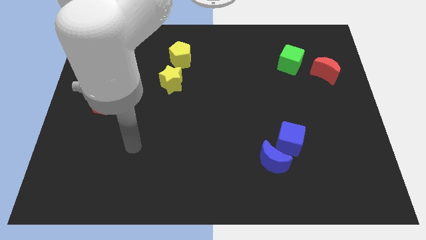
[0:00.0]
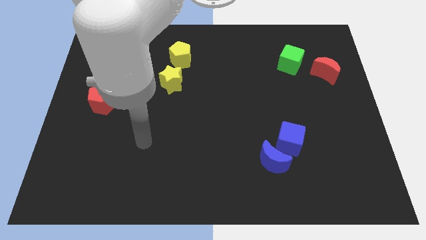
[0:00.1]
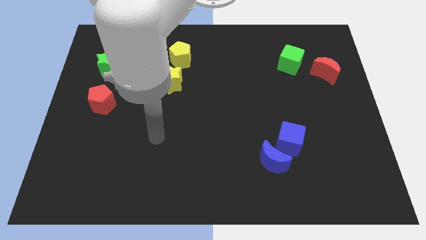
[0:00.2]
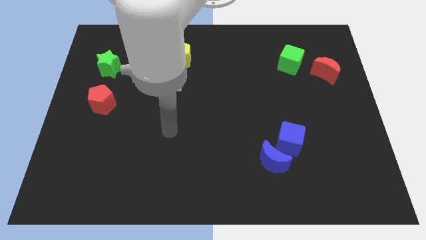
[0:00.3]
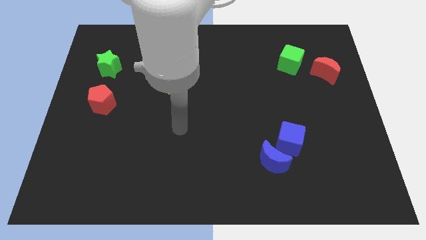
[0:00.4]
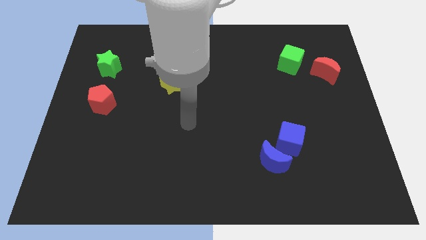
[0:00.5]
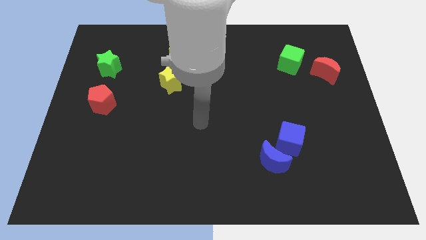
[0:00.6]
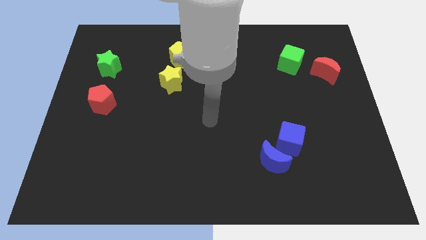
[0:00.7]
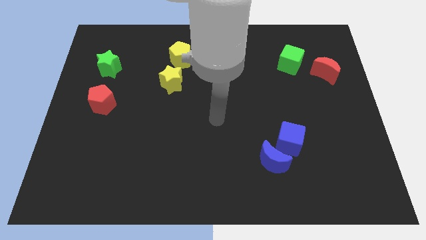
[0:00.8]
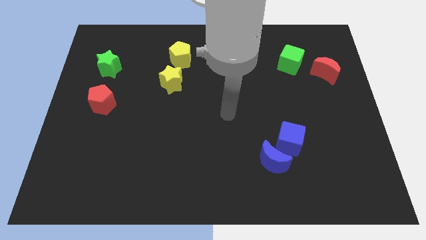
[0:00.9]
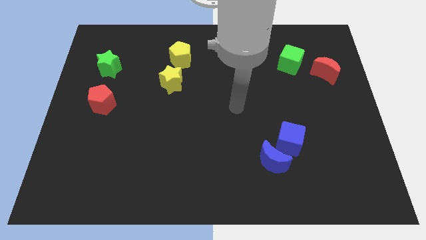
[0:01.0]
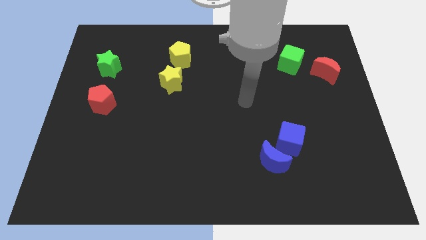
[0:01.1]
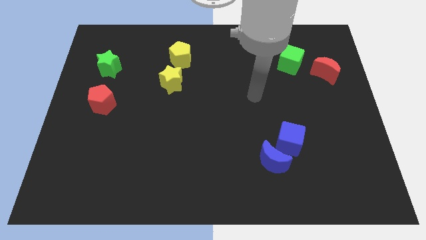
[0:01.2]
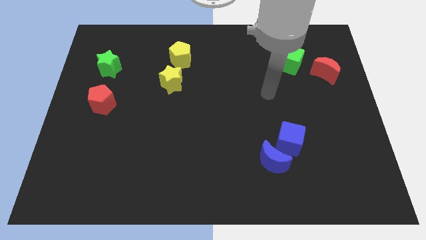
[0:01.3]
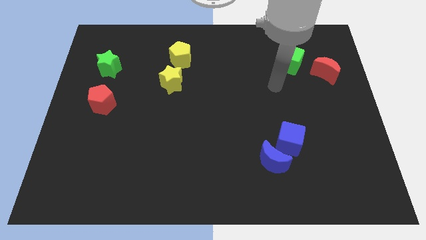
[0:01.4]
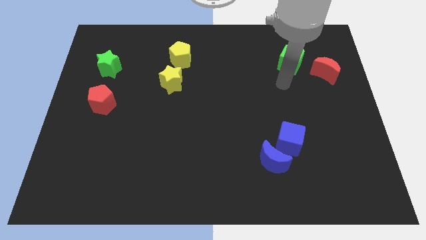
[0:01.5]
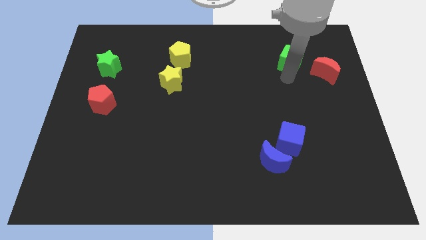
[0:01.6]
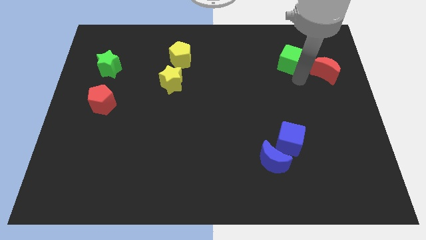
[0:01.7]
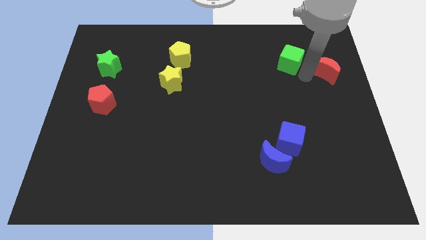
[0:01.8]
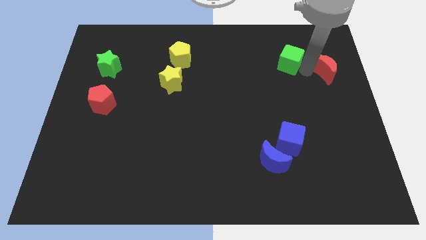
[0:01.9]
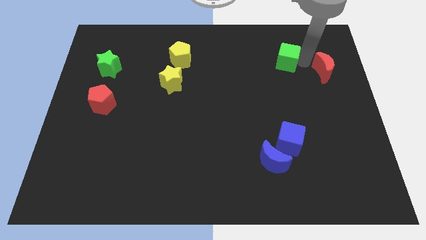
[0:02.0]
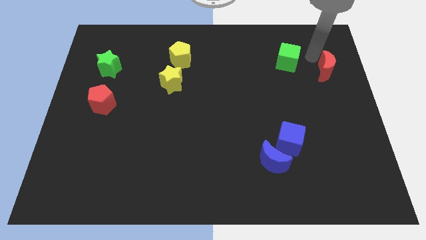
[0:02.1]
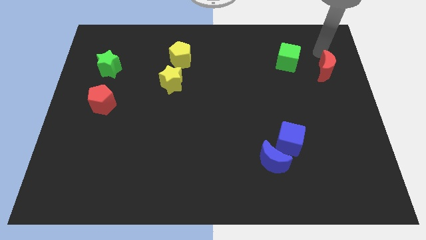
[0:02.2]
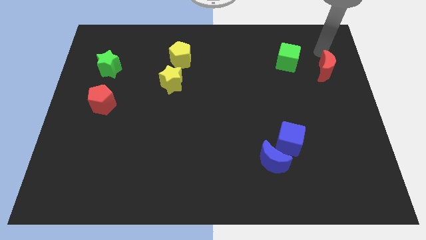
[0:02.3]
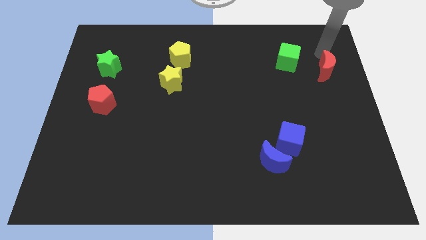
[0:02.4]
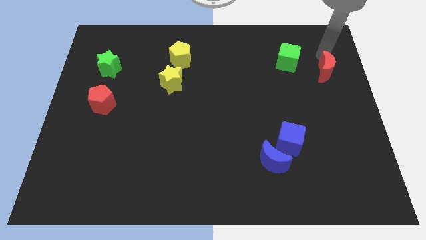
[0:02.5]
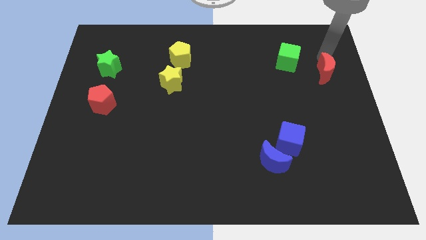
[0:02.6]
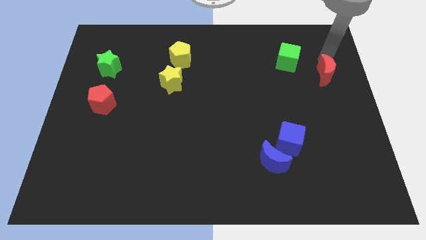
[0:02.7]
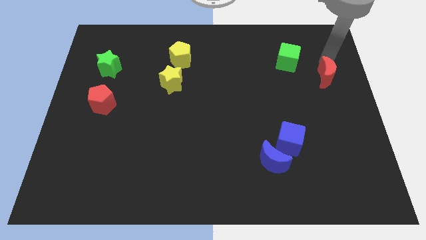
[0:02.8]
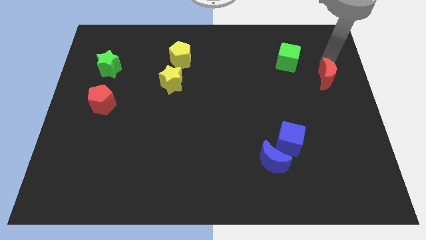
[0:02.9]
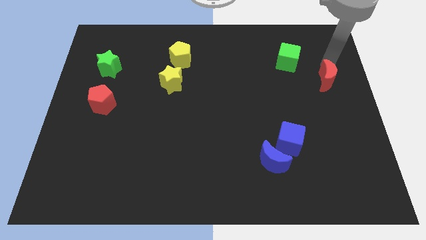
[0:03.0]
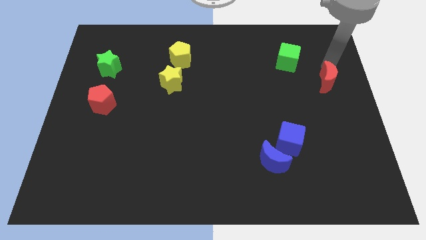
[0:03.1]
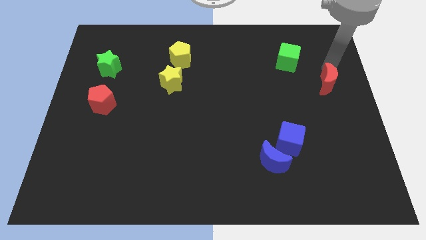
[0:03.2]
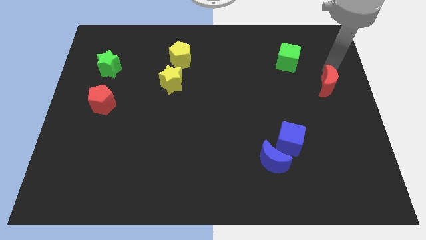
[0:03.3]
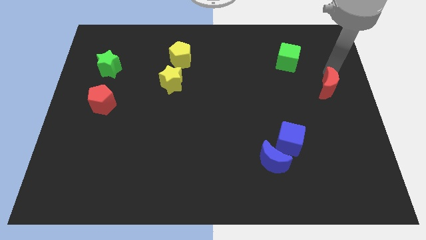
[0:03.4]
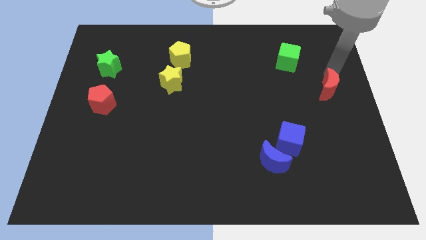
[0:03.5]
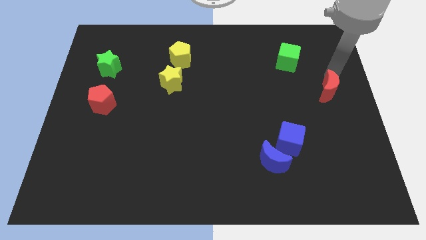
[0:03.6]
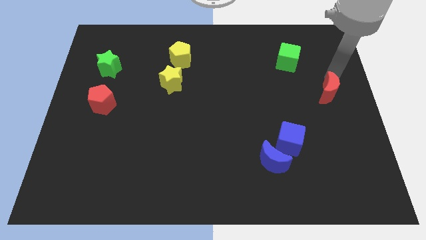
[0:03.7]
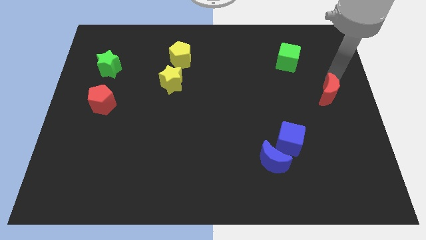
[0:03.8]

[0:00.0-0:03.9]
move the red moon somewhat downwards

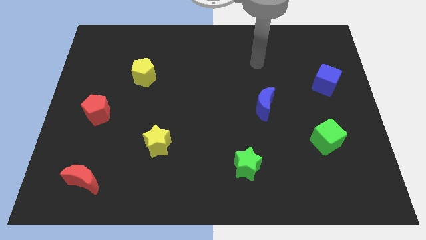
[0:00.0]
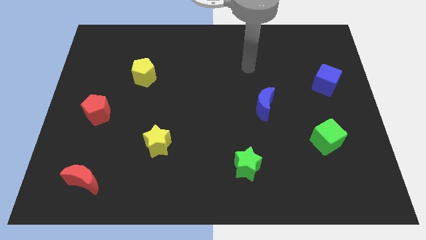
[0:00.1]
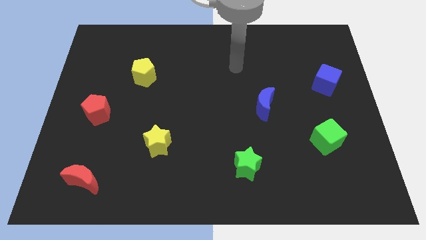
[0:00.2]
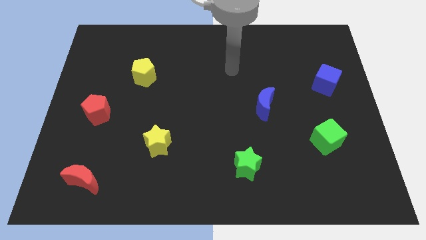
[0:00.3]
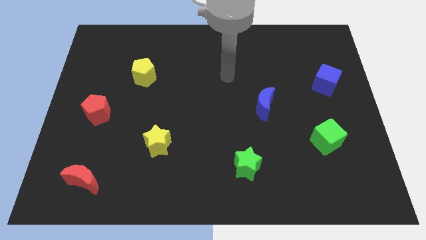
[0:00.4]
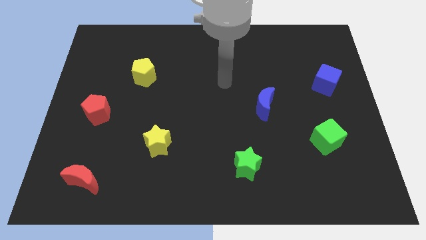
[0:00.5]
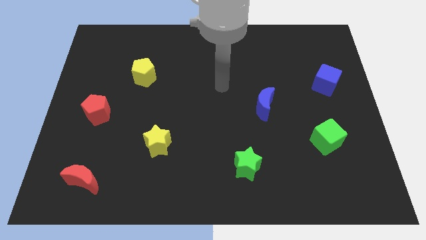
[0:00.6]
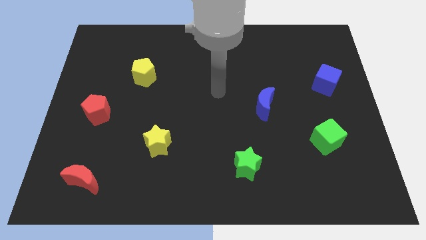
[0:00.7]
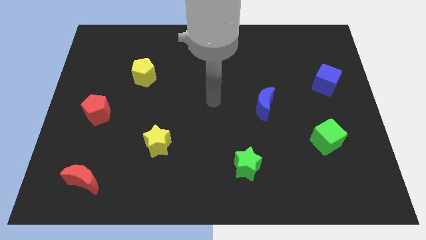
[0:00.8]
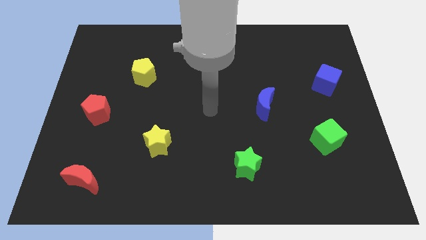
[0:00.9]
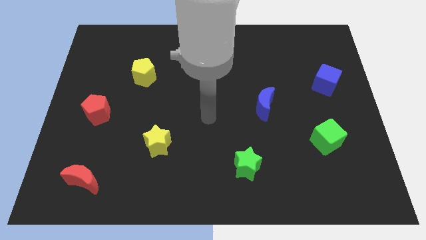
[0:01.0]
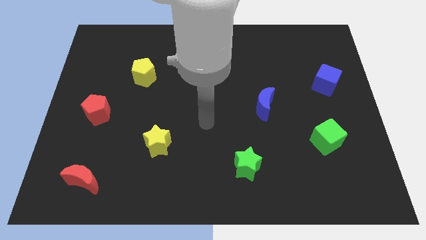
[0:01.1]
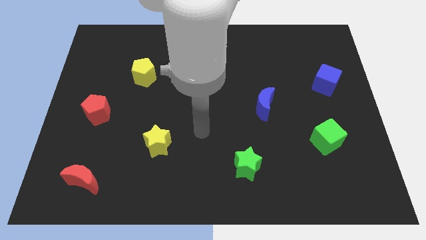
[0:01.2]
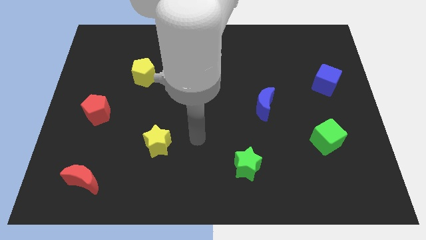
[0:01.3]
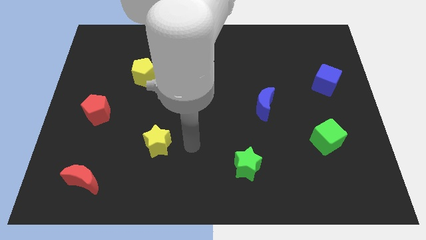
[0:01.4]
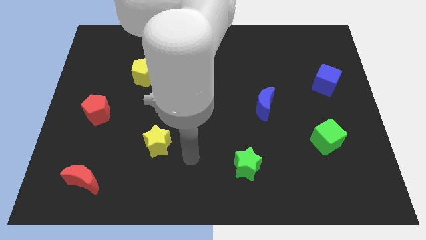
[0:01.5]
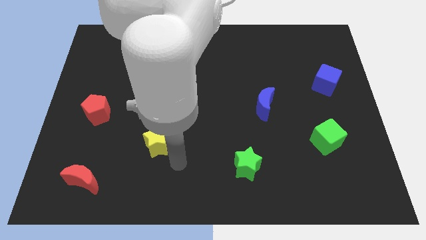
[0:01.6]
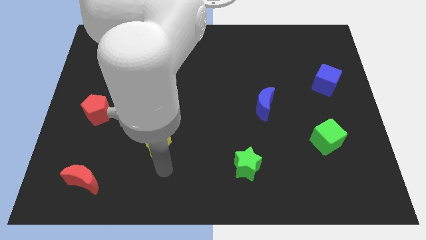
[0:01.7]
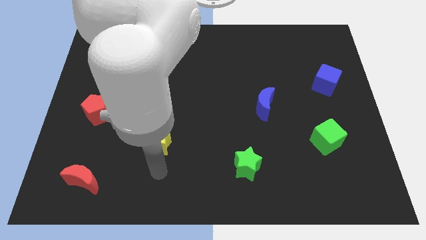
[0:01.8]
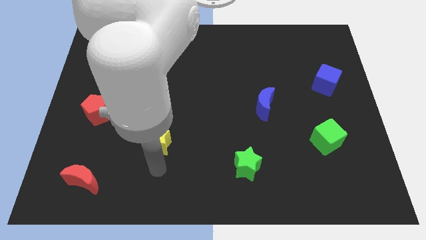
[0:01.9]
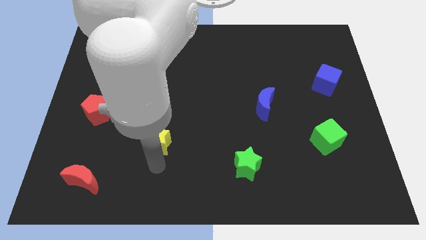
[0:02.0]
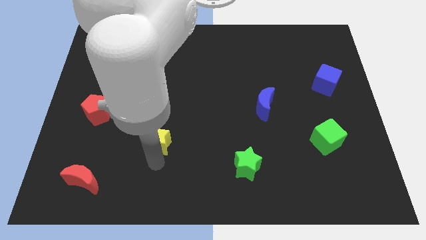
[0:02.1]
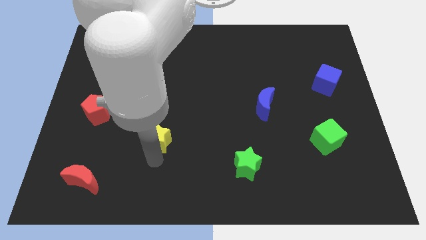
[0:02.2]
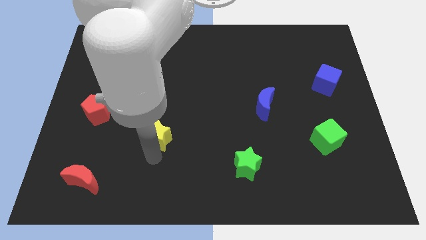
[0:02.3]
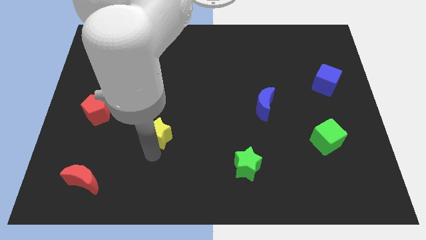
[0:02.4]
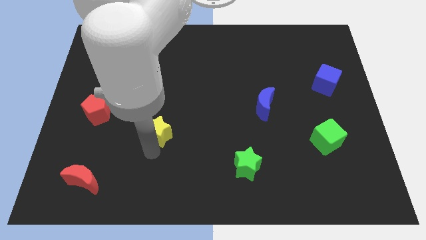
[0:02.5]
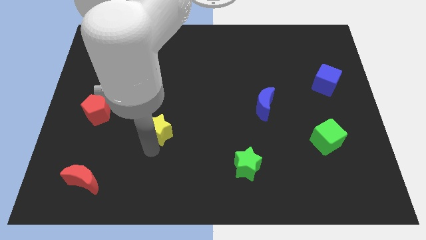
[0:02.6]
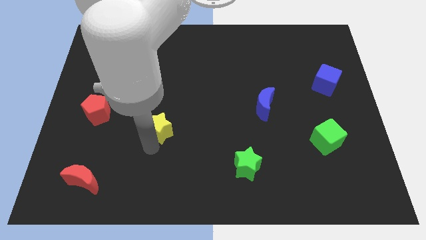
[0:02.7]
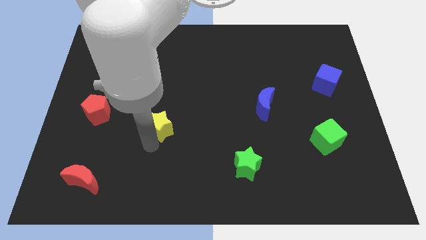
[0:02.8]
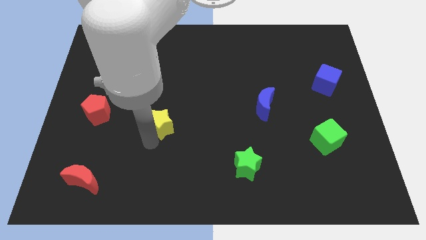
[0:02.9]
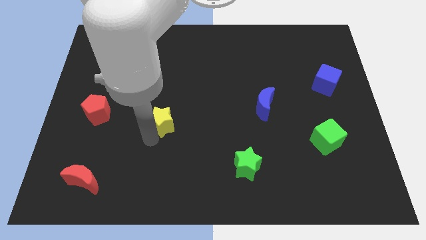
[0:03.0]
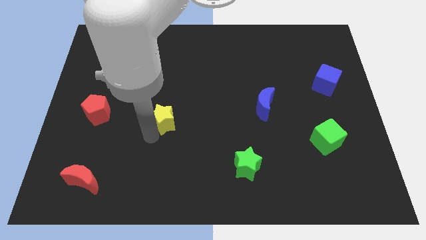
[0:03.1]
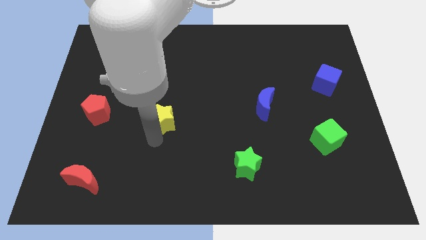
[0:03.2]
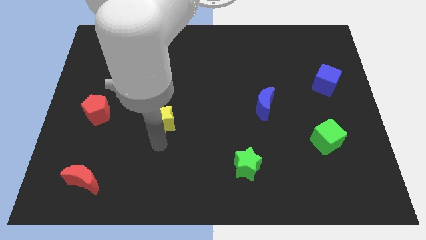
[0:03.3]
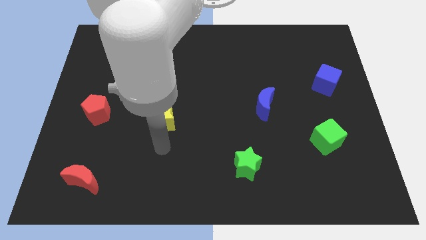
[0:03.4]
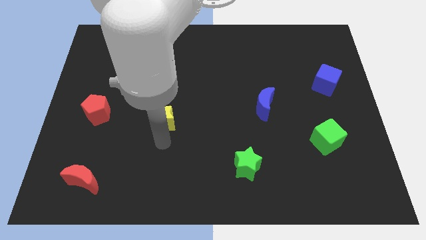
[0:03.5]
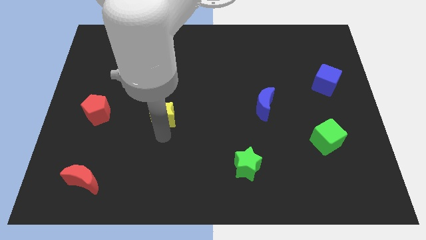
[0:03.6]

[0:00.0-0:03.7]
slide the yellow star a bit up

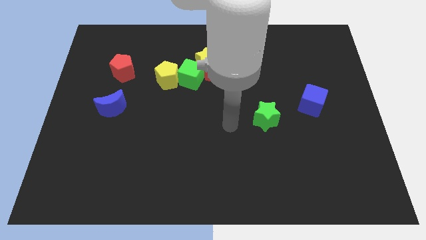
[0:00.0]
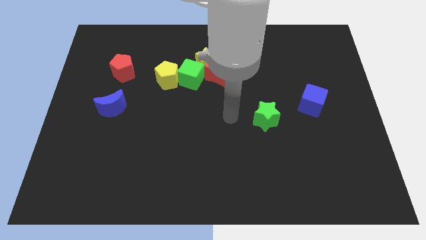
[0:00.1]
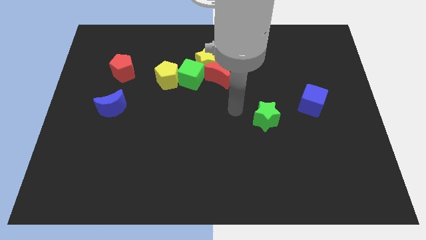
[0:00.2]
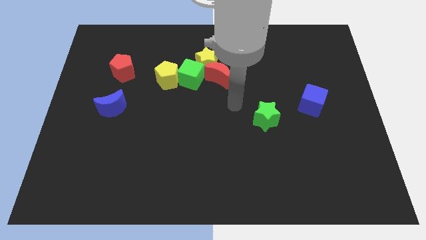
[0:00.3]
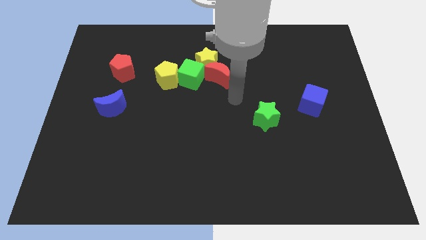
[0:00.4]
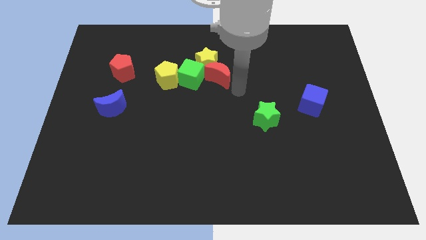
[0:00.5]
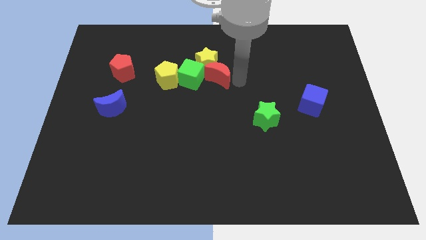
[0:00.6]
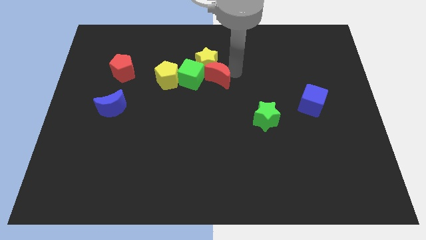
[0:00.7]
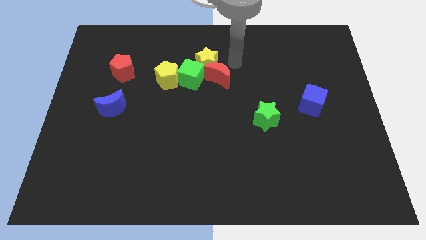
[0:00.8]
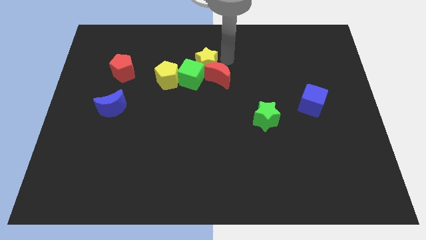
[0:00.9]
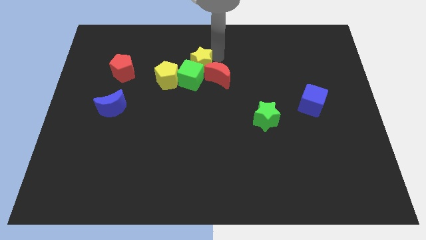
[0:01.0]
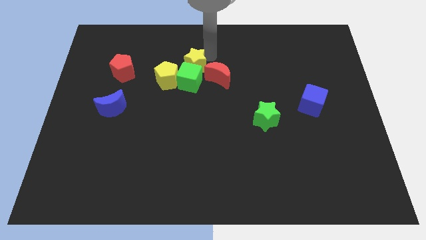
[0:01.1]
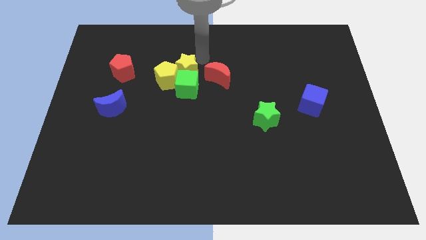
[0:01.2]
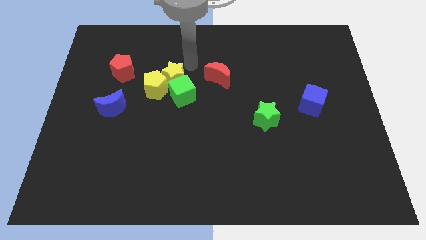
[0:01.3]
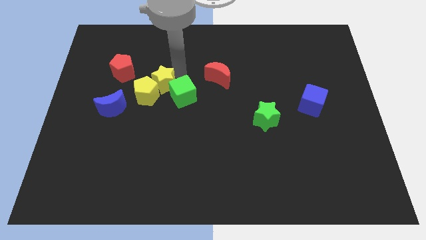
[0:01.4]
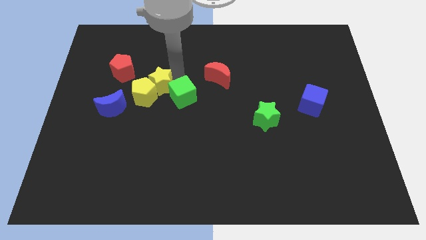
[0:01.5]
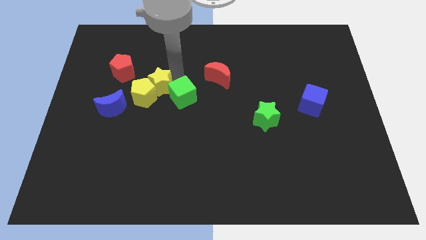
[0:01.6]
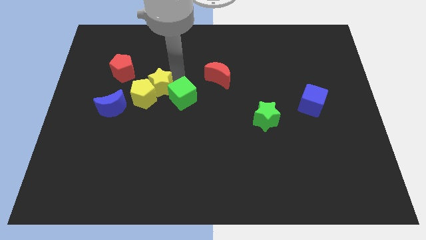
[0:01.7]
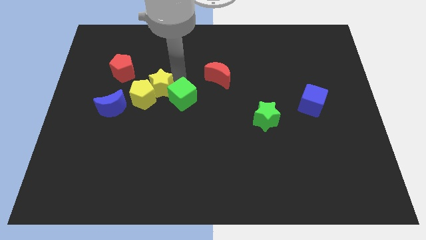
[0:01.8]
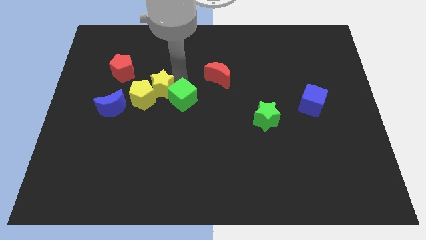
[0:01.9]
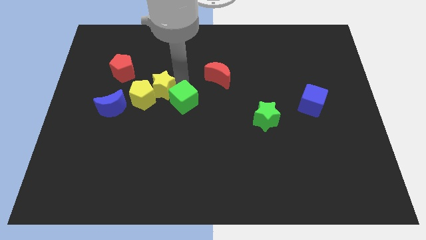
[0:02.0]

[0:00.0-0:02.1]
slide the green cube a bit down
